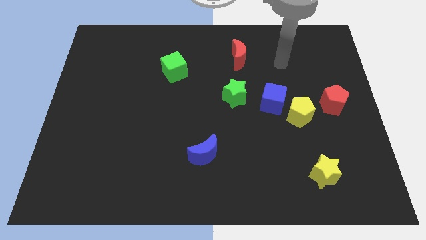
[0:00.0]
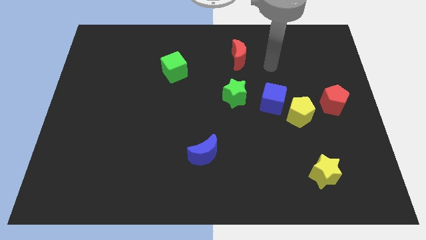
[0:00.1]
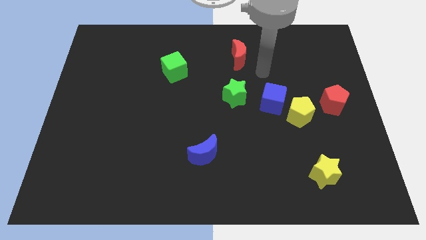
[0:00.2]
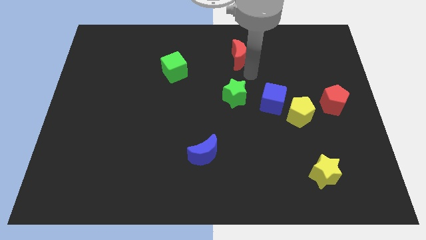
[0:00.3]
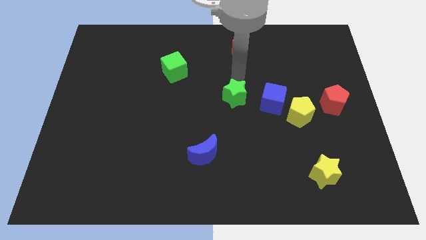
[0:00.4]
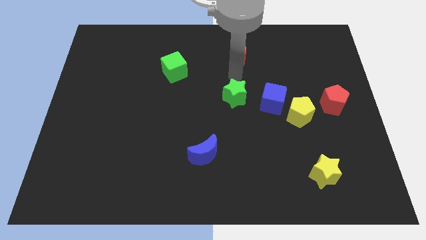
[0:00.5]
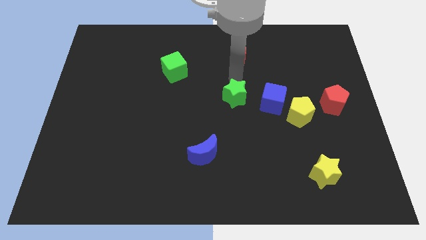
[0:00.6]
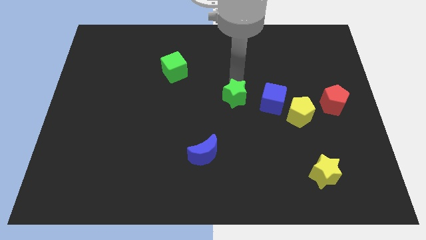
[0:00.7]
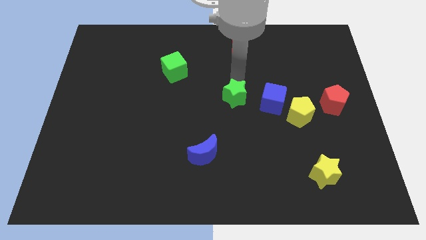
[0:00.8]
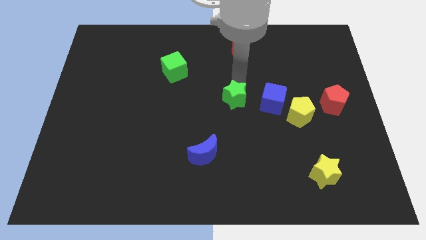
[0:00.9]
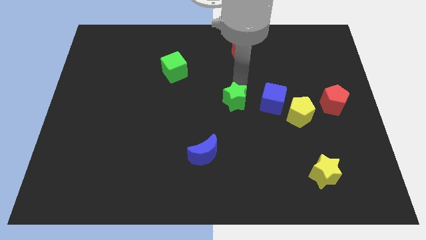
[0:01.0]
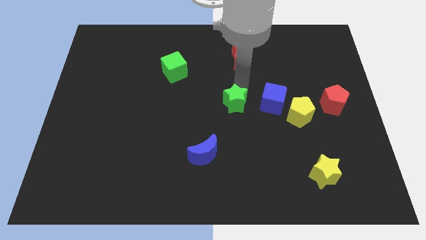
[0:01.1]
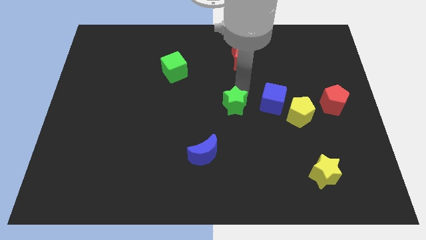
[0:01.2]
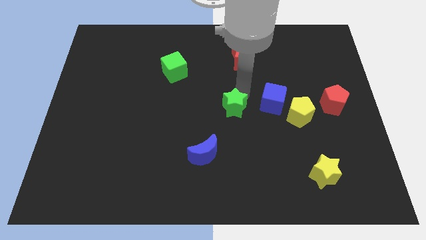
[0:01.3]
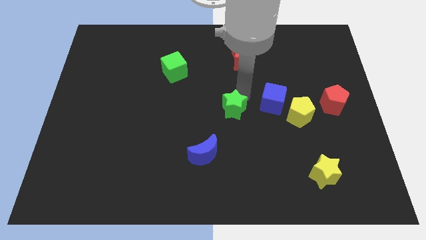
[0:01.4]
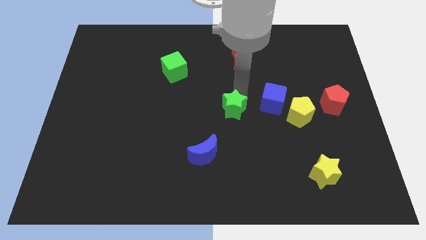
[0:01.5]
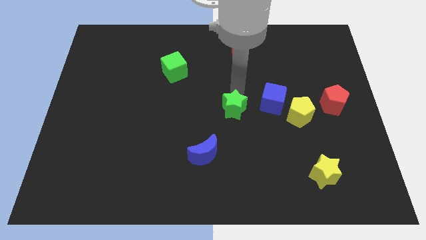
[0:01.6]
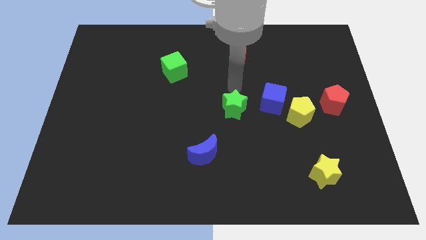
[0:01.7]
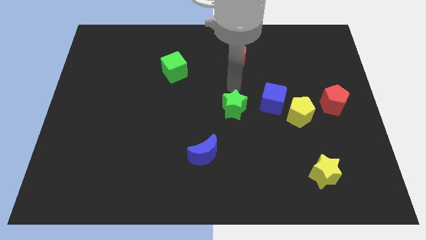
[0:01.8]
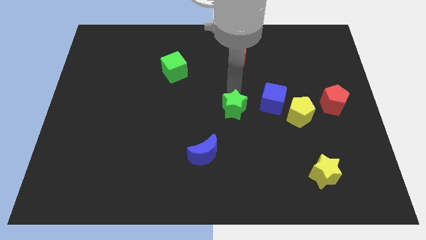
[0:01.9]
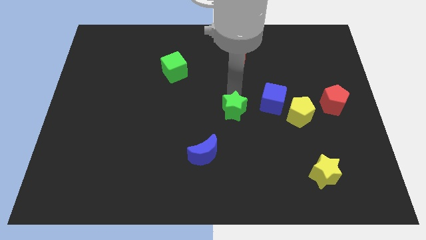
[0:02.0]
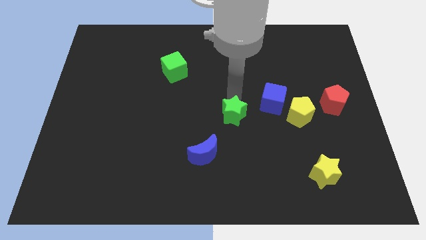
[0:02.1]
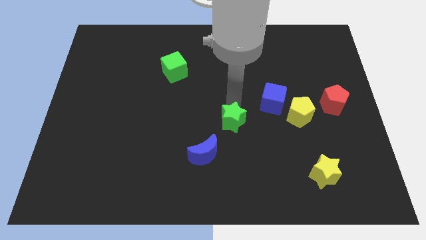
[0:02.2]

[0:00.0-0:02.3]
move the green star downwards a little bit

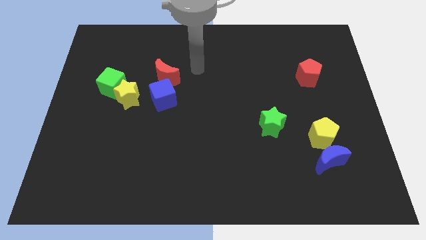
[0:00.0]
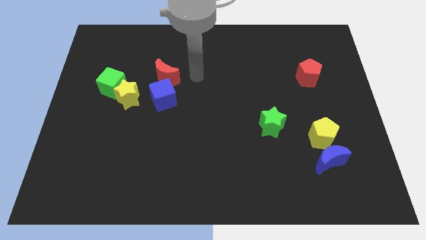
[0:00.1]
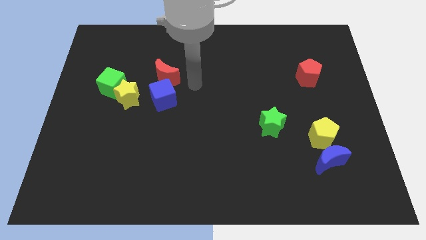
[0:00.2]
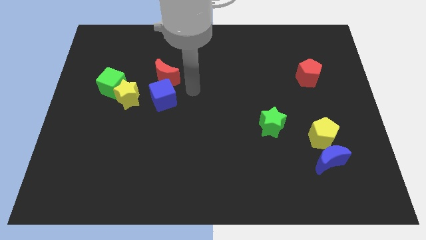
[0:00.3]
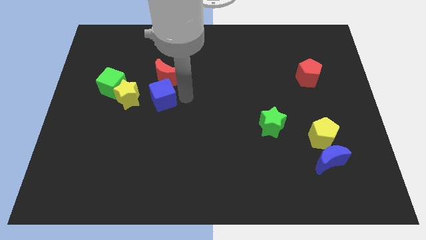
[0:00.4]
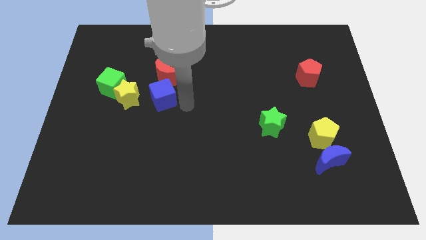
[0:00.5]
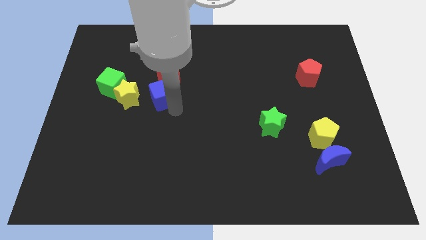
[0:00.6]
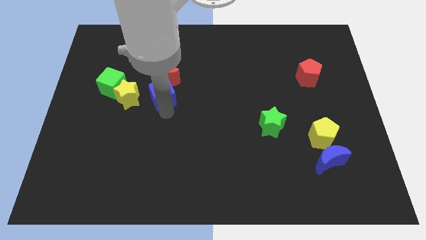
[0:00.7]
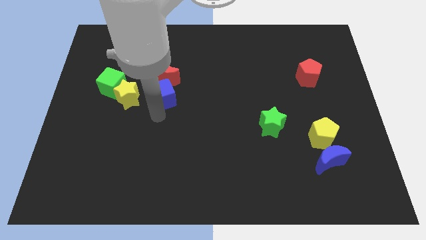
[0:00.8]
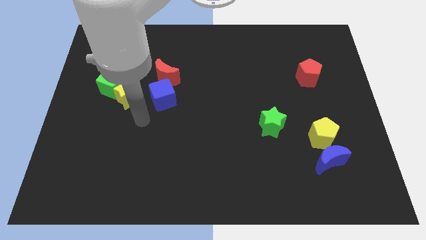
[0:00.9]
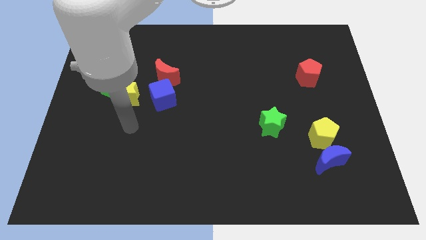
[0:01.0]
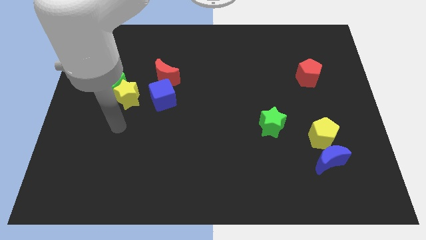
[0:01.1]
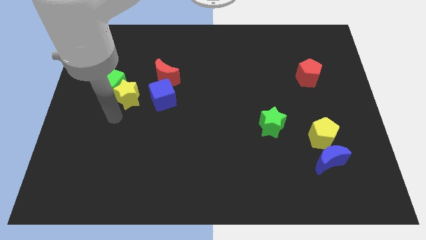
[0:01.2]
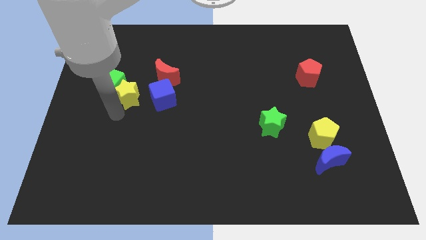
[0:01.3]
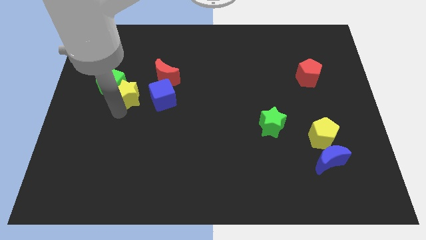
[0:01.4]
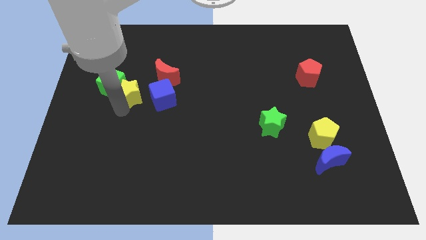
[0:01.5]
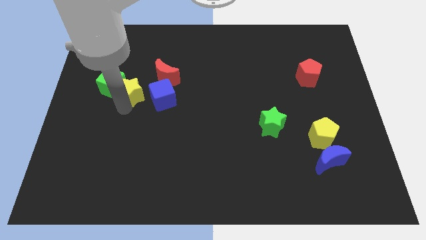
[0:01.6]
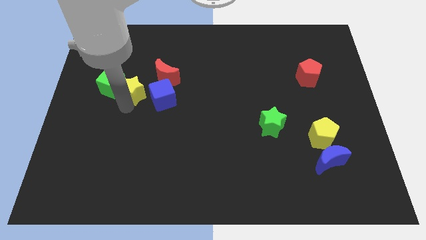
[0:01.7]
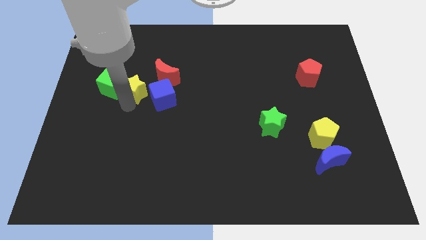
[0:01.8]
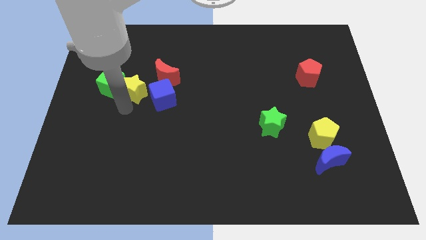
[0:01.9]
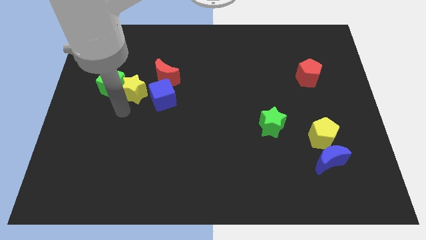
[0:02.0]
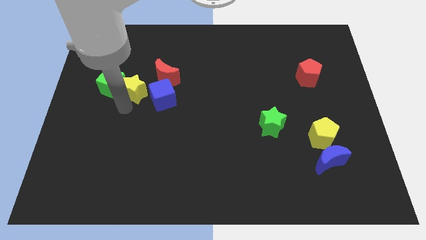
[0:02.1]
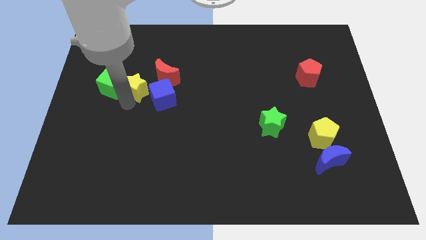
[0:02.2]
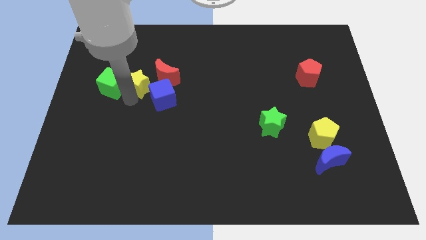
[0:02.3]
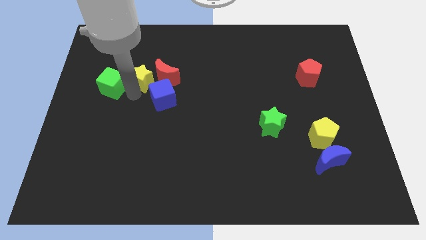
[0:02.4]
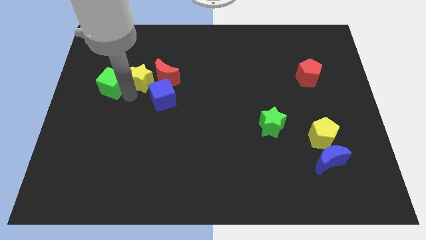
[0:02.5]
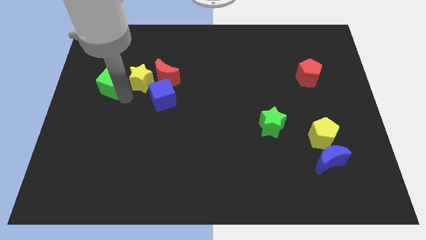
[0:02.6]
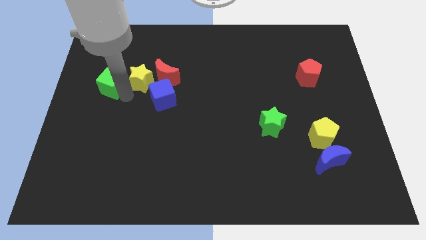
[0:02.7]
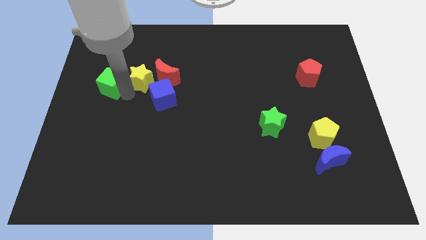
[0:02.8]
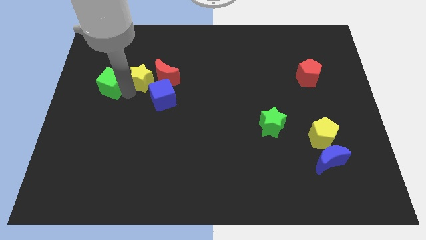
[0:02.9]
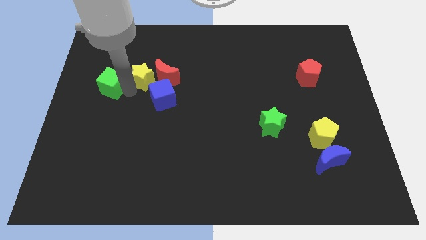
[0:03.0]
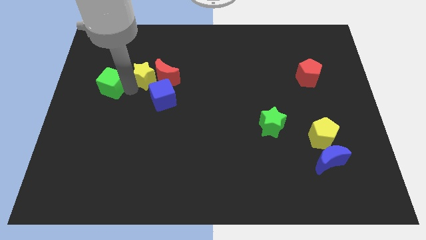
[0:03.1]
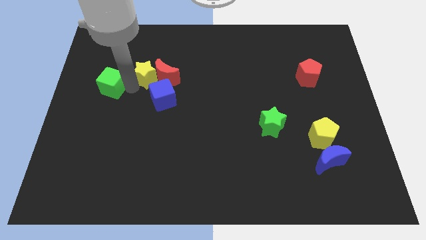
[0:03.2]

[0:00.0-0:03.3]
slide the yellow star slightly up and then right

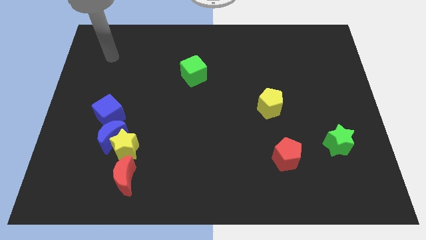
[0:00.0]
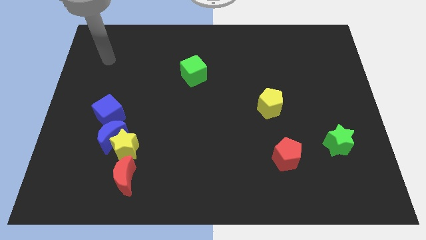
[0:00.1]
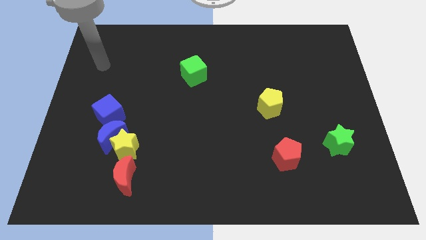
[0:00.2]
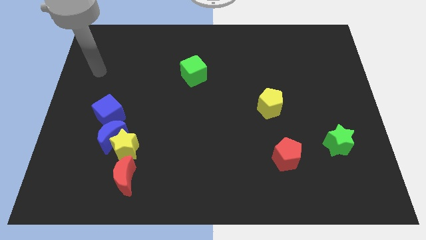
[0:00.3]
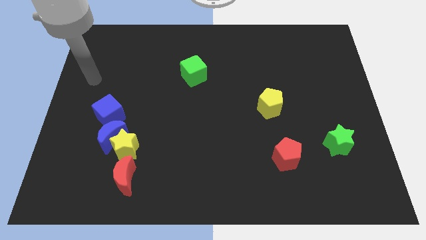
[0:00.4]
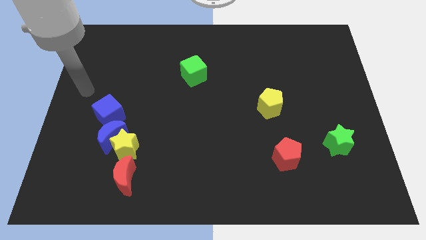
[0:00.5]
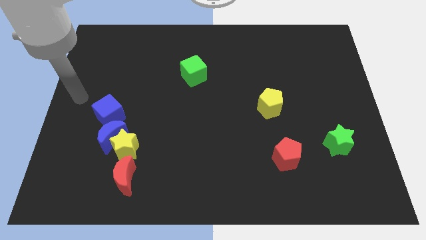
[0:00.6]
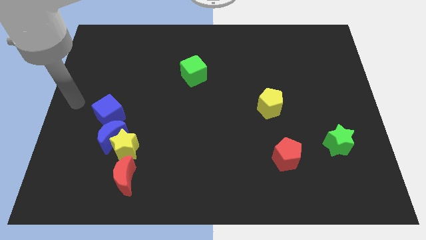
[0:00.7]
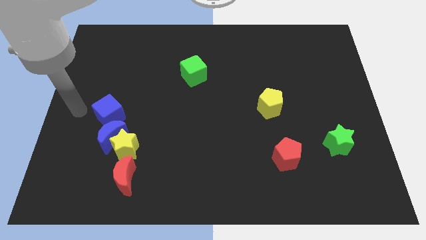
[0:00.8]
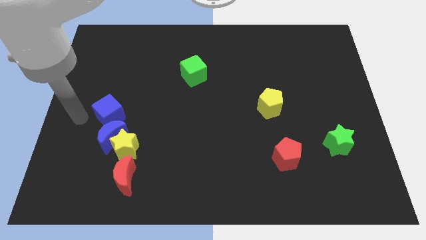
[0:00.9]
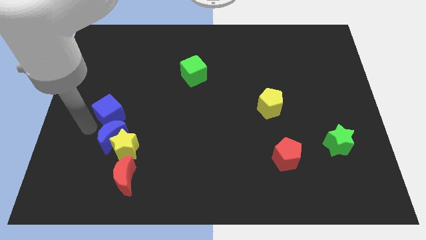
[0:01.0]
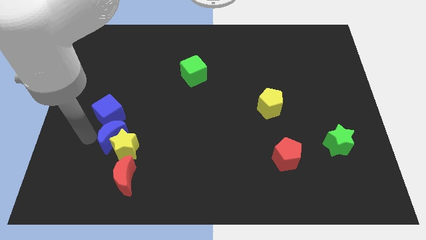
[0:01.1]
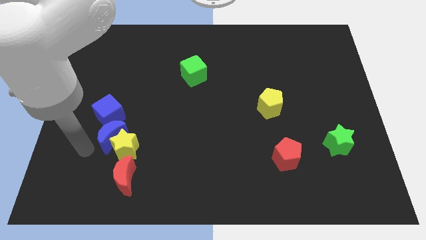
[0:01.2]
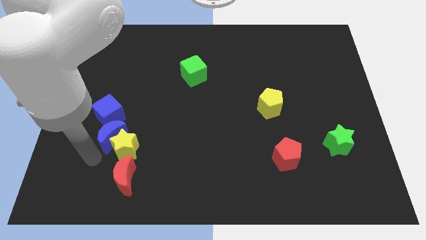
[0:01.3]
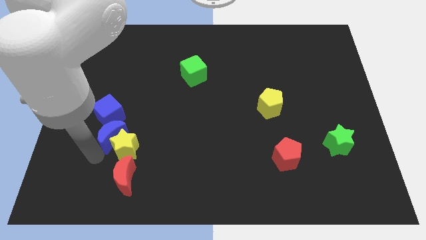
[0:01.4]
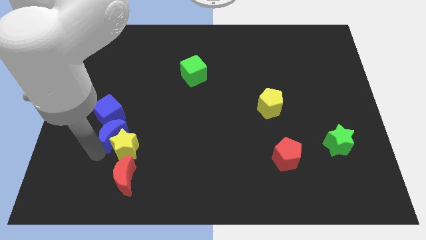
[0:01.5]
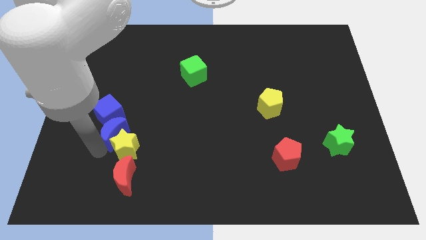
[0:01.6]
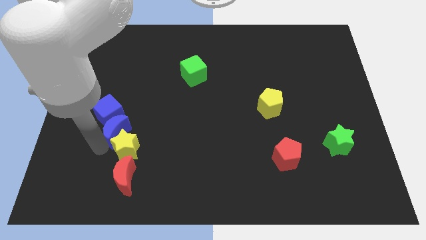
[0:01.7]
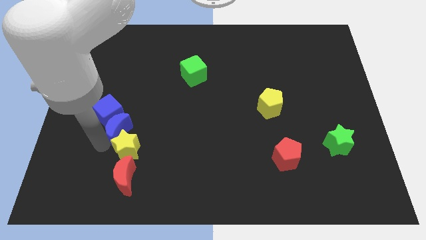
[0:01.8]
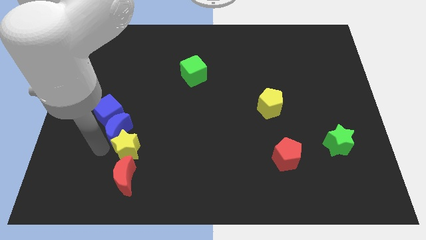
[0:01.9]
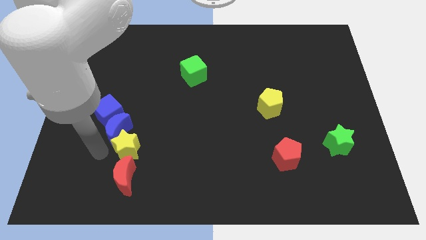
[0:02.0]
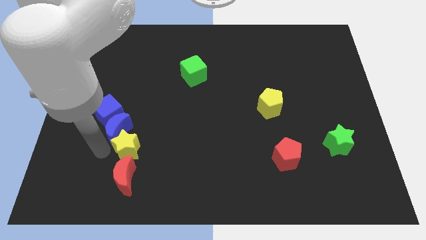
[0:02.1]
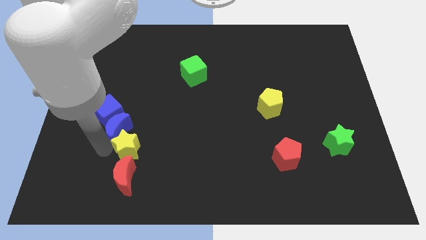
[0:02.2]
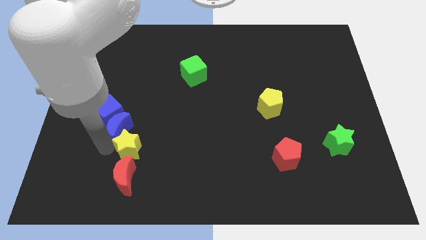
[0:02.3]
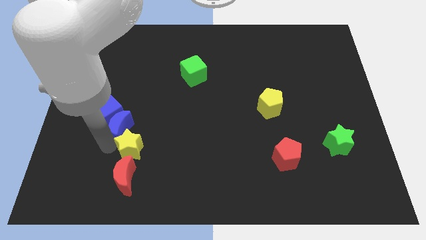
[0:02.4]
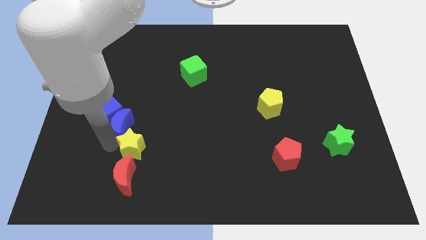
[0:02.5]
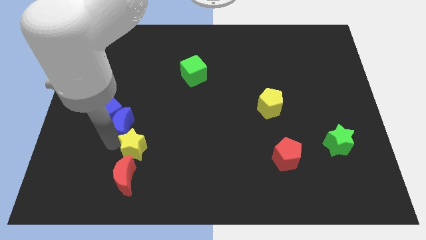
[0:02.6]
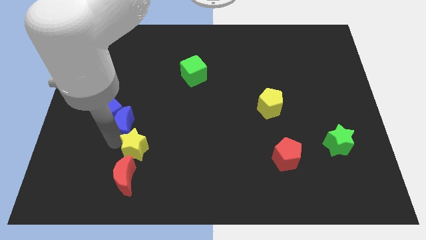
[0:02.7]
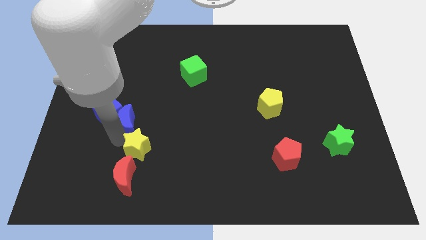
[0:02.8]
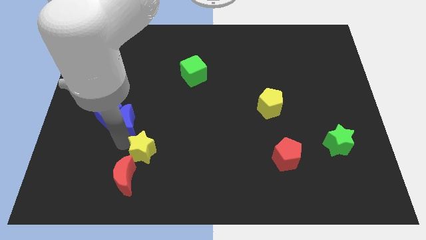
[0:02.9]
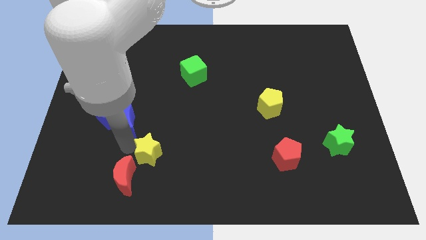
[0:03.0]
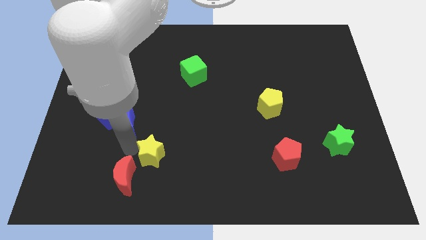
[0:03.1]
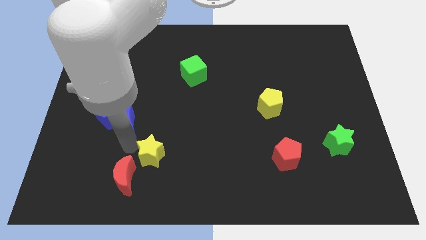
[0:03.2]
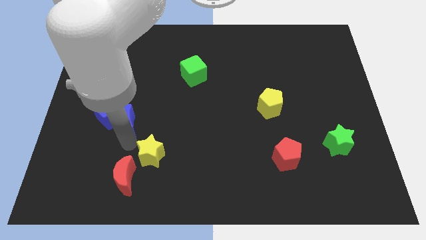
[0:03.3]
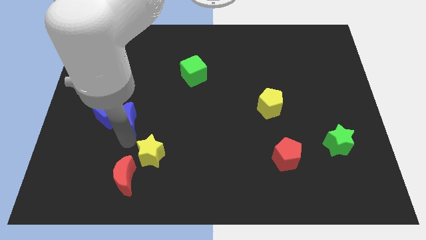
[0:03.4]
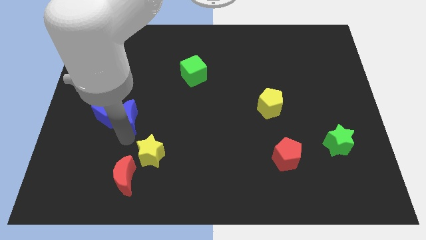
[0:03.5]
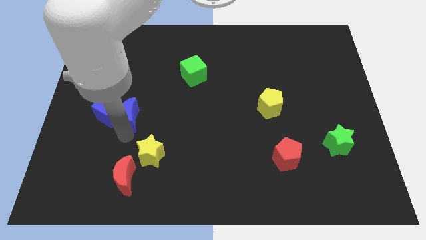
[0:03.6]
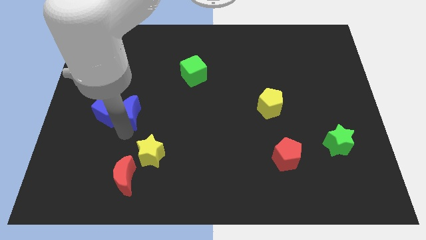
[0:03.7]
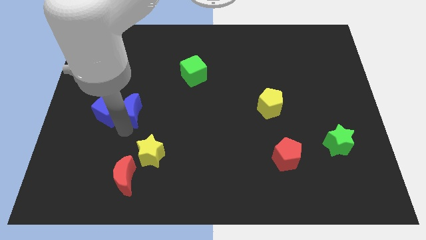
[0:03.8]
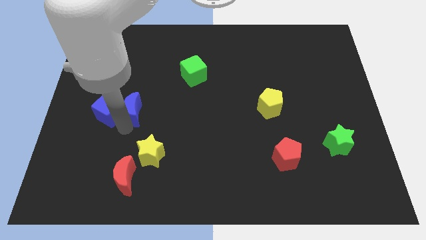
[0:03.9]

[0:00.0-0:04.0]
slide the blue moon up slightly
